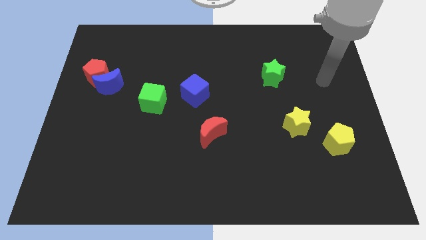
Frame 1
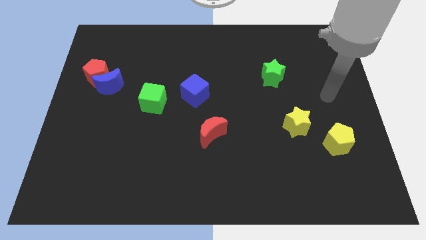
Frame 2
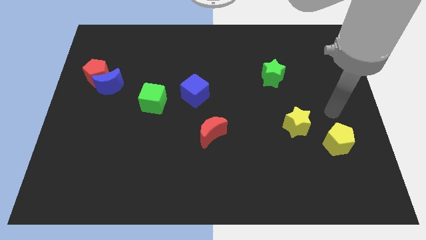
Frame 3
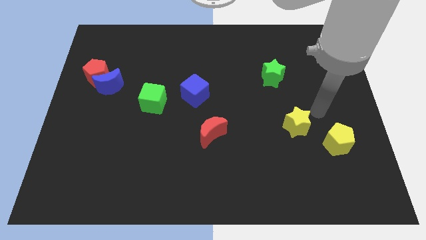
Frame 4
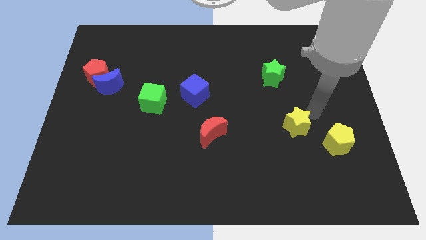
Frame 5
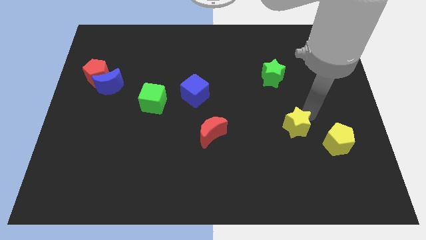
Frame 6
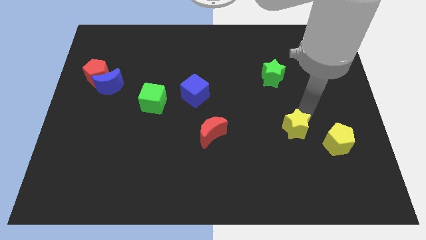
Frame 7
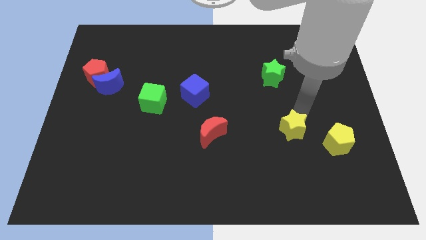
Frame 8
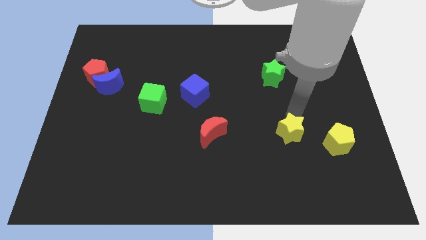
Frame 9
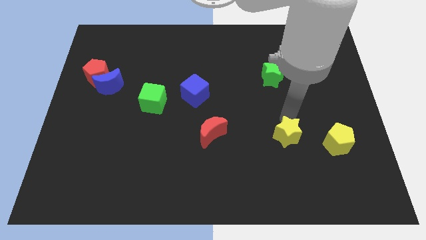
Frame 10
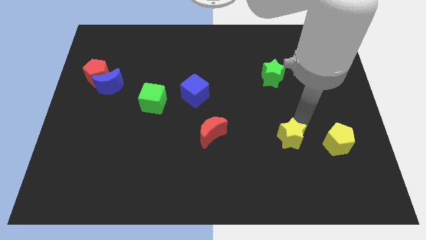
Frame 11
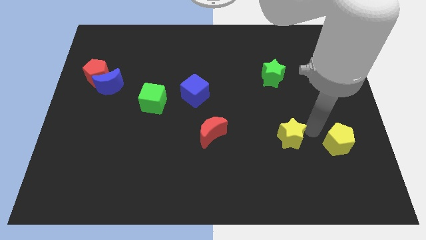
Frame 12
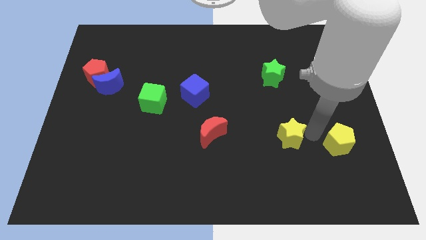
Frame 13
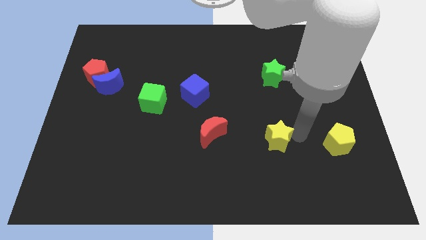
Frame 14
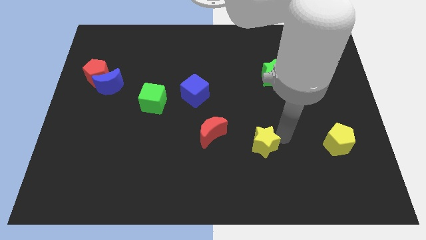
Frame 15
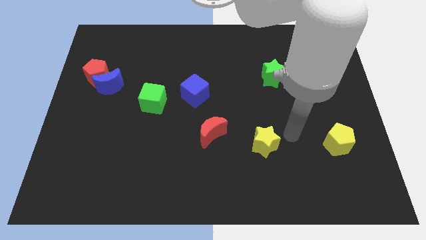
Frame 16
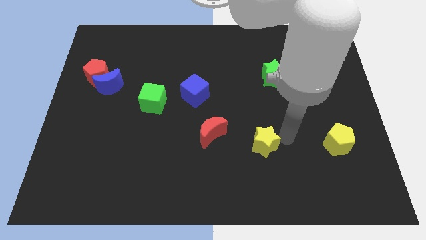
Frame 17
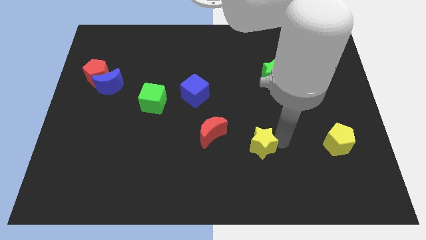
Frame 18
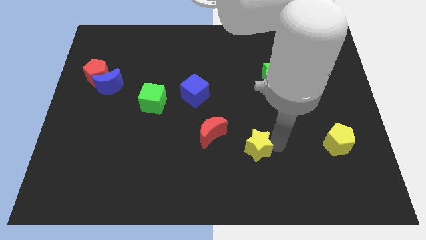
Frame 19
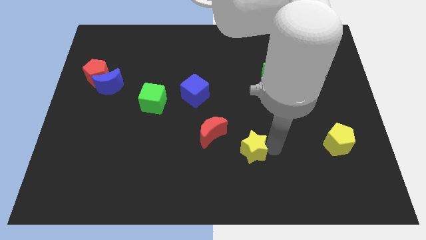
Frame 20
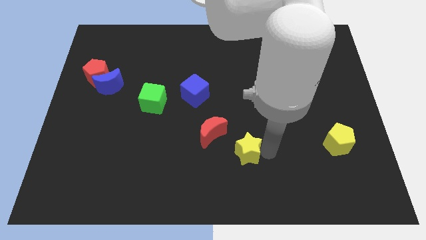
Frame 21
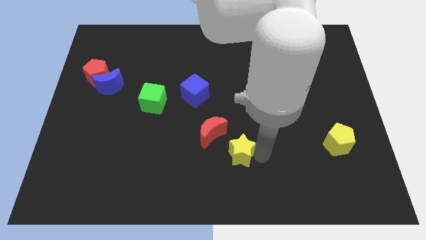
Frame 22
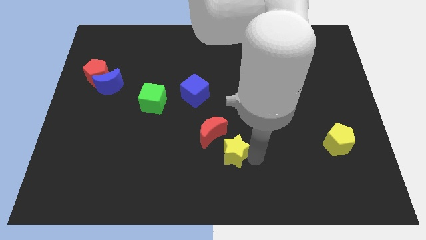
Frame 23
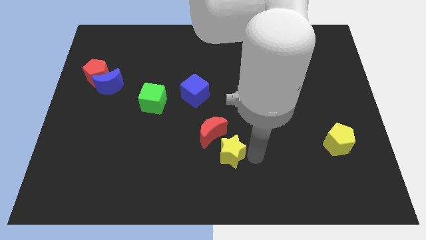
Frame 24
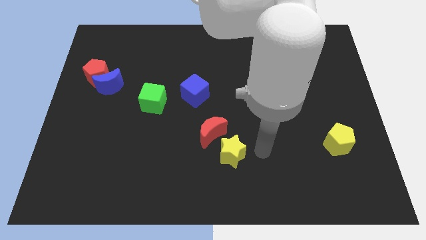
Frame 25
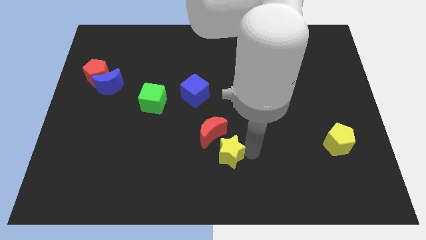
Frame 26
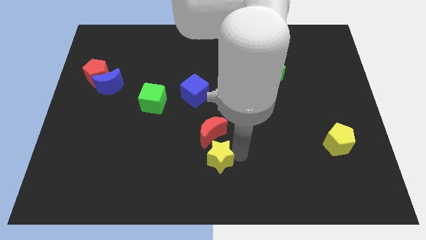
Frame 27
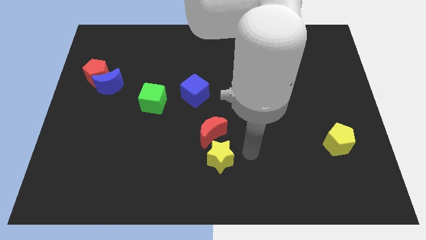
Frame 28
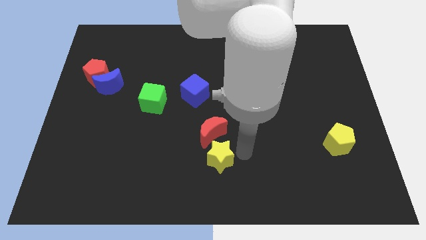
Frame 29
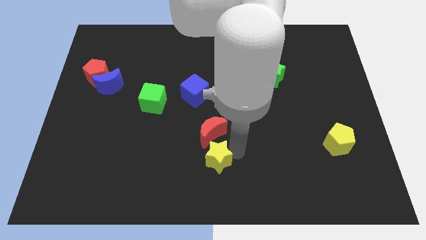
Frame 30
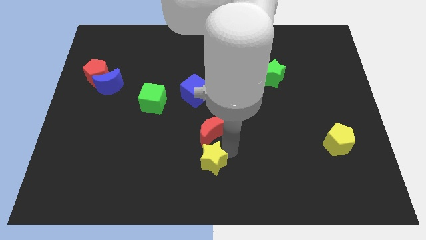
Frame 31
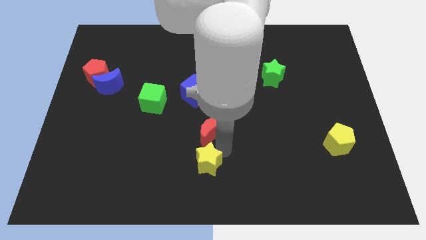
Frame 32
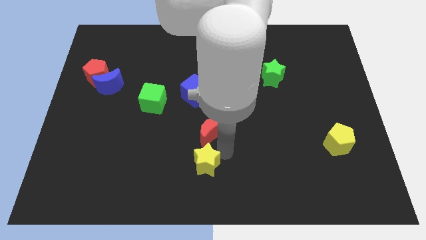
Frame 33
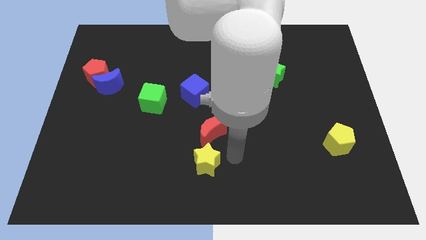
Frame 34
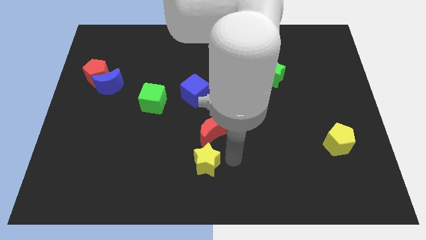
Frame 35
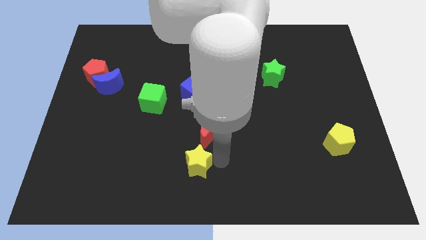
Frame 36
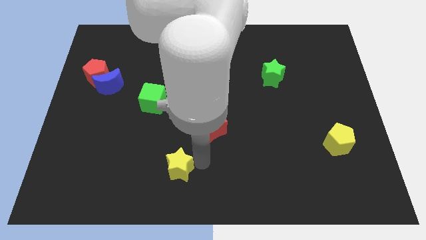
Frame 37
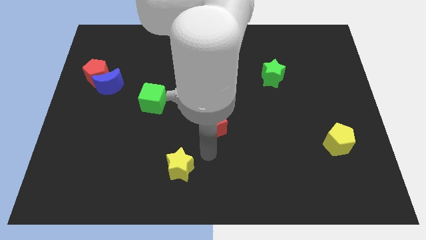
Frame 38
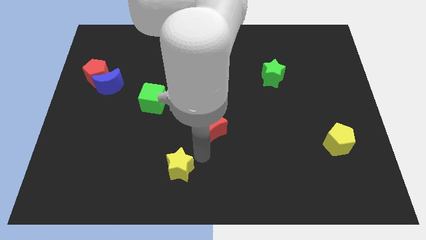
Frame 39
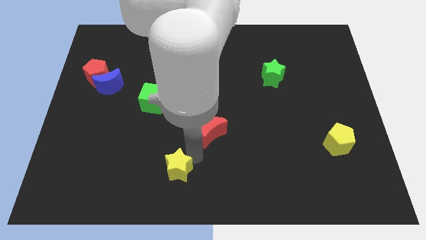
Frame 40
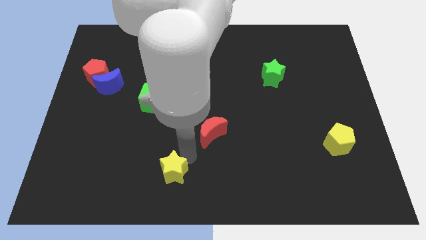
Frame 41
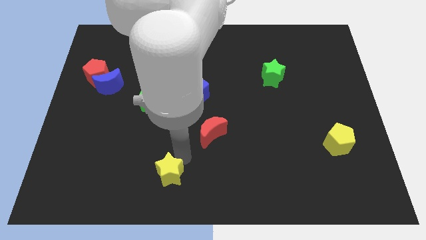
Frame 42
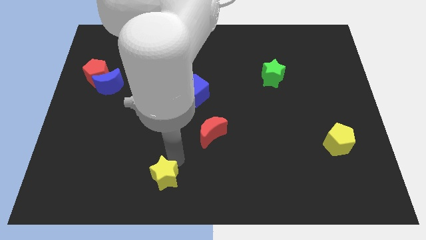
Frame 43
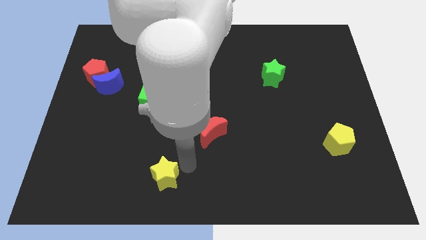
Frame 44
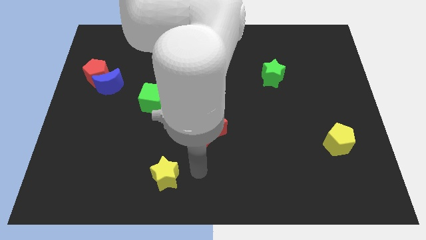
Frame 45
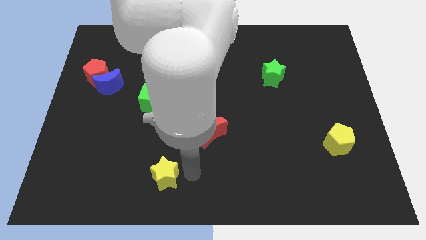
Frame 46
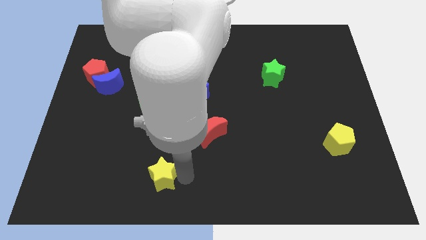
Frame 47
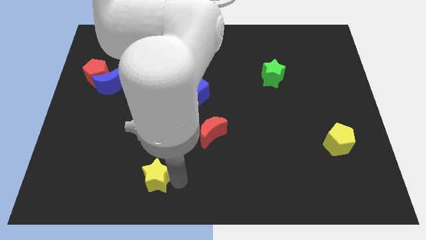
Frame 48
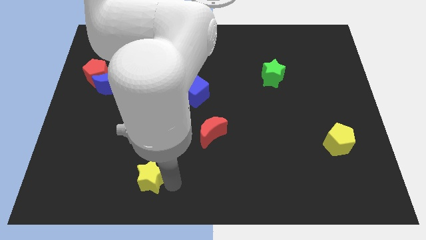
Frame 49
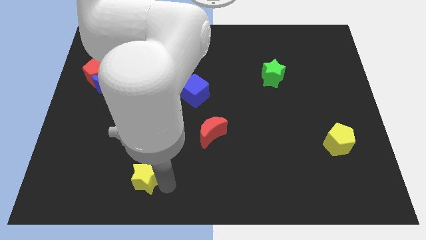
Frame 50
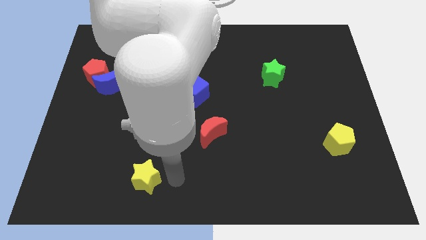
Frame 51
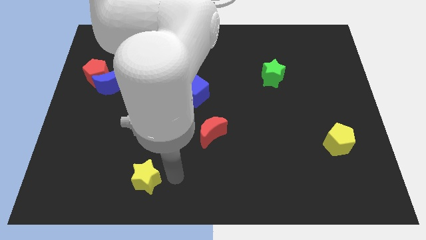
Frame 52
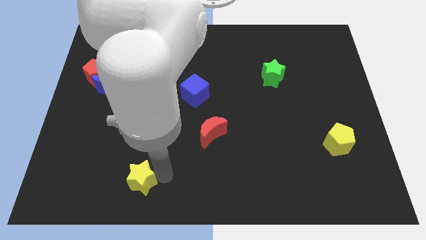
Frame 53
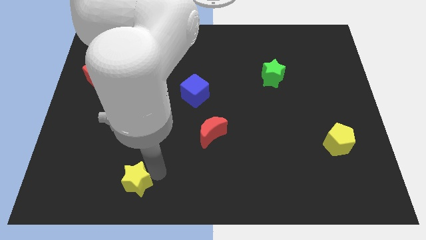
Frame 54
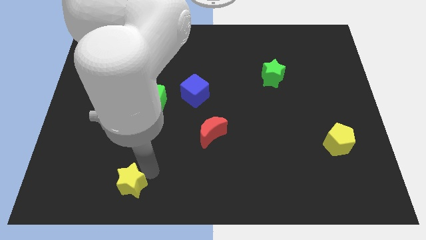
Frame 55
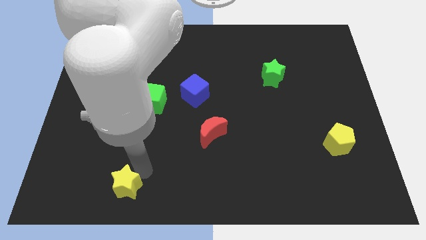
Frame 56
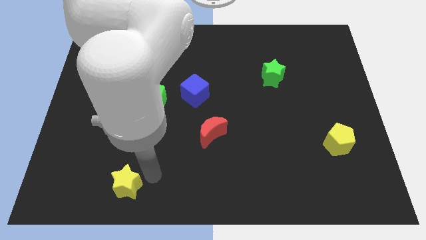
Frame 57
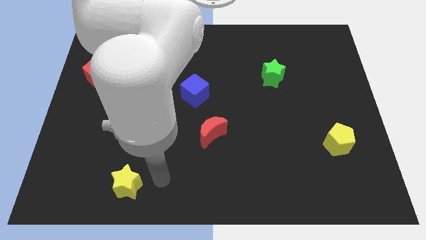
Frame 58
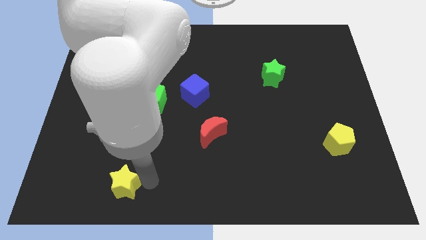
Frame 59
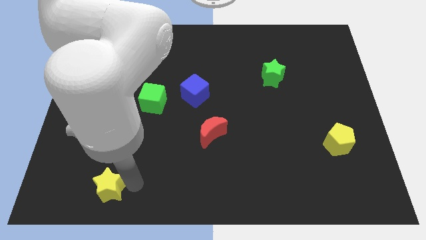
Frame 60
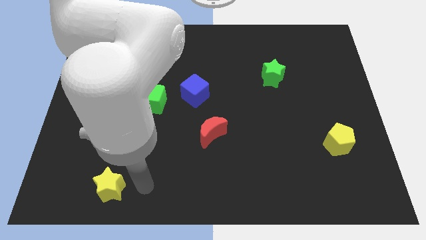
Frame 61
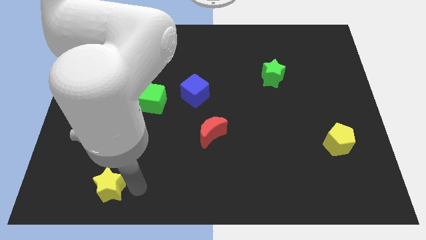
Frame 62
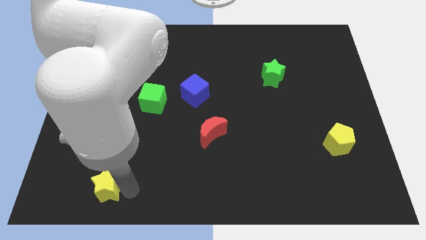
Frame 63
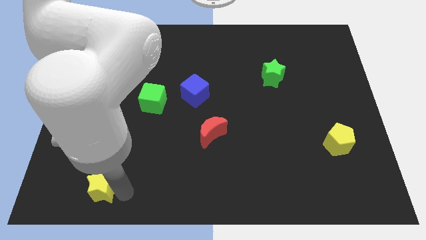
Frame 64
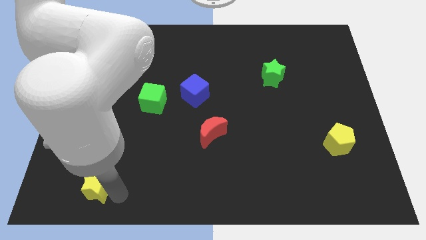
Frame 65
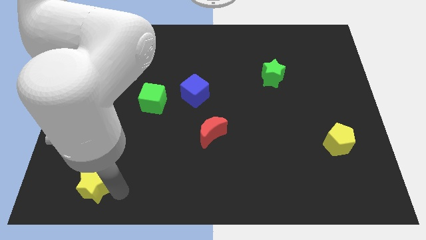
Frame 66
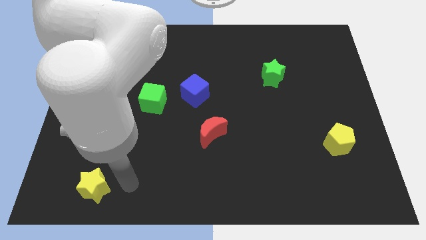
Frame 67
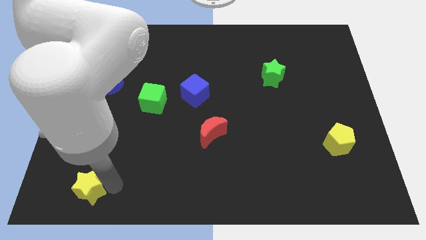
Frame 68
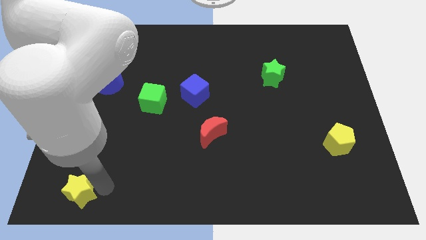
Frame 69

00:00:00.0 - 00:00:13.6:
move the yellow star to the lower left corner

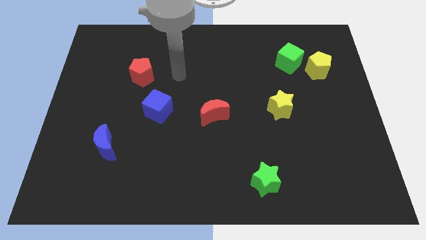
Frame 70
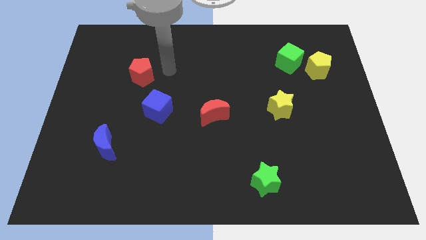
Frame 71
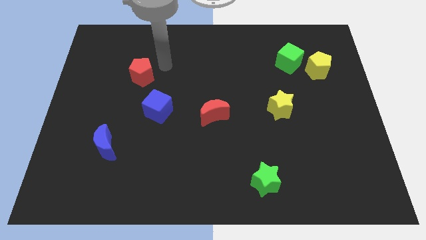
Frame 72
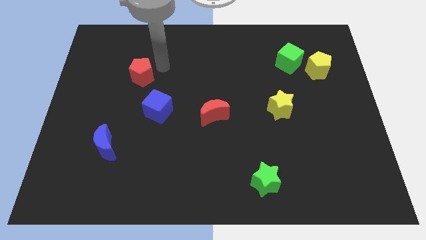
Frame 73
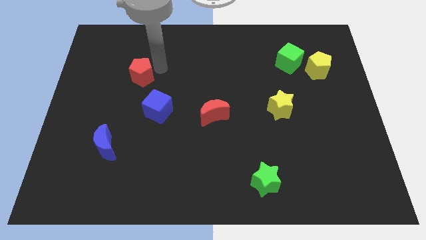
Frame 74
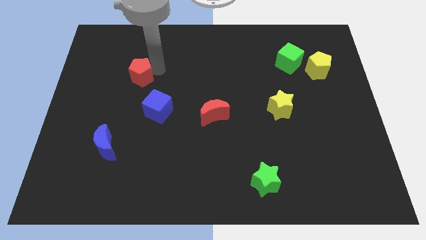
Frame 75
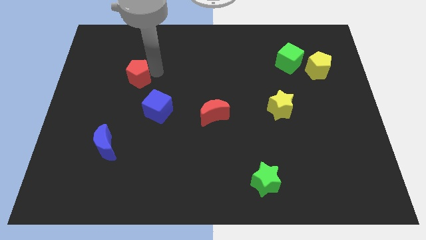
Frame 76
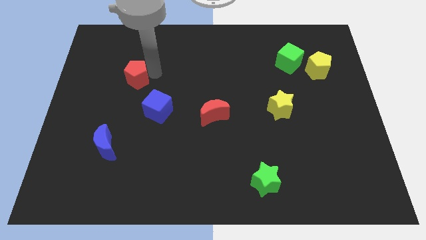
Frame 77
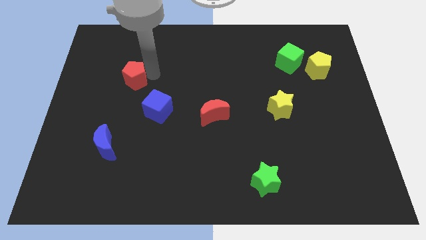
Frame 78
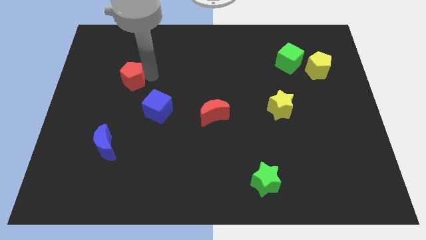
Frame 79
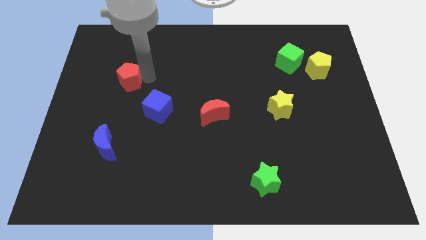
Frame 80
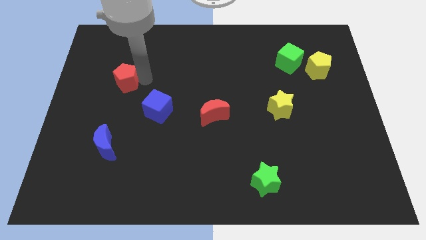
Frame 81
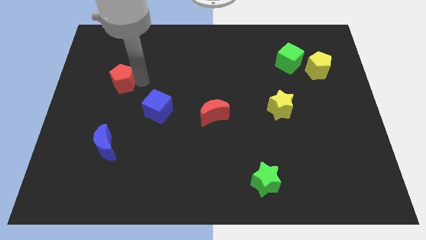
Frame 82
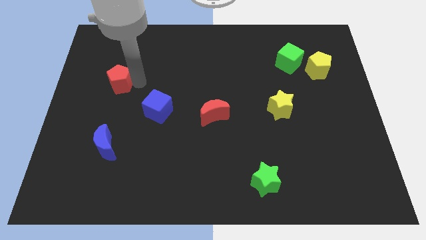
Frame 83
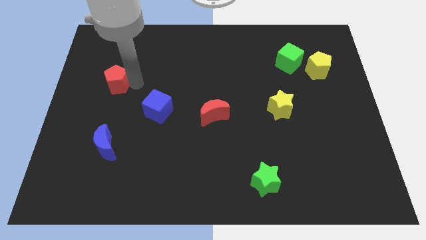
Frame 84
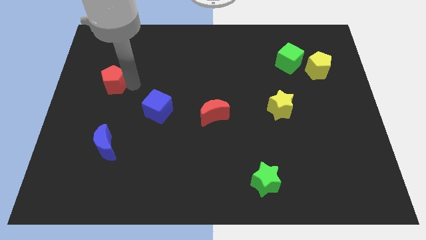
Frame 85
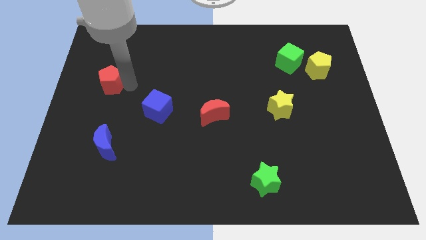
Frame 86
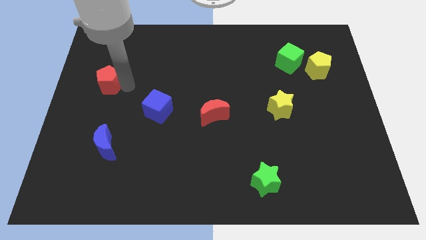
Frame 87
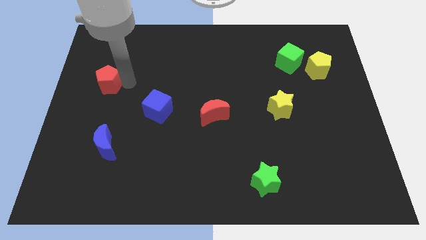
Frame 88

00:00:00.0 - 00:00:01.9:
move the red pentagon to the center left
